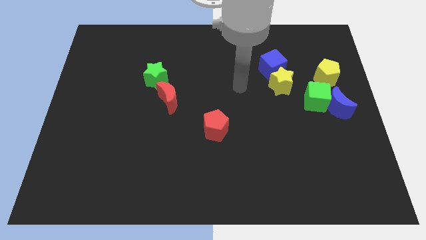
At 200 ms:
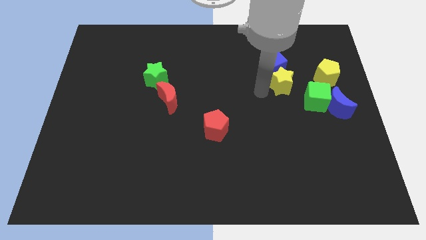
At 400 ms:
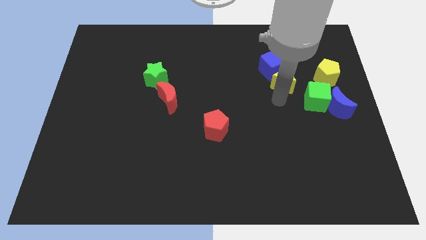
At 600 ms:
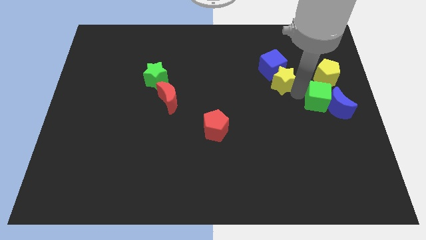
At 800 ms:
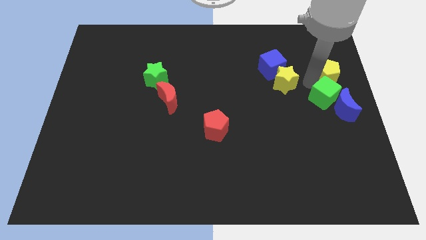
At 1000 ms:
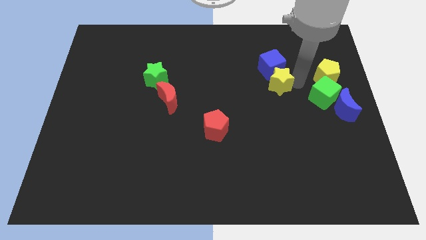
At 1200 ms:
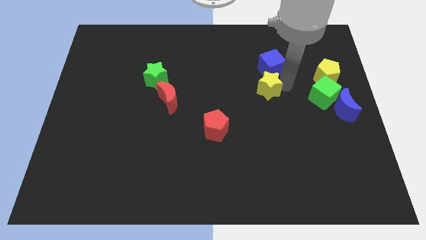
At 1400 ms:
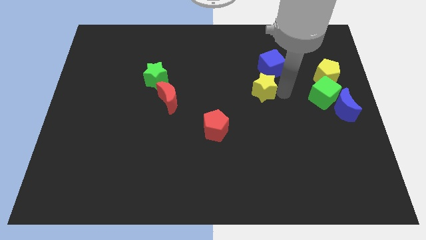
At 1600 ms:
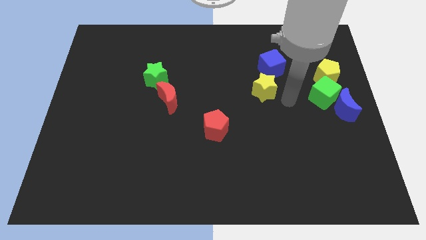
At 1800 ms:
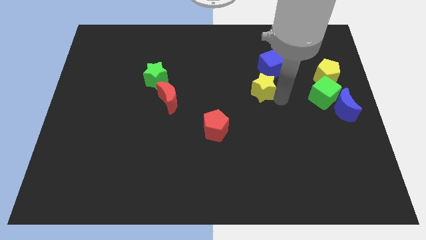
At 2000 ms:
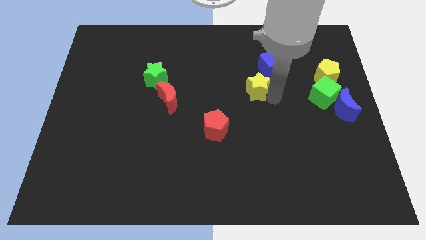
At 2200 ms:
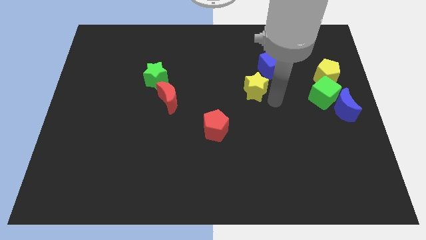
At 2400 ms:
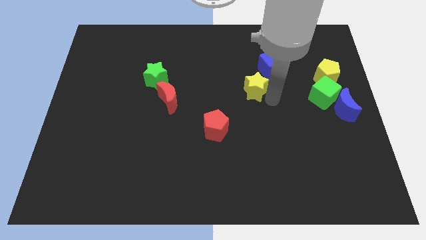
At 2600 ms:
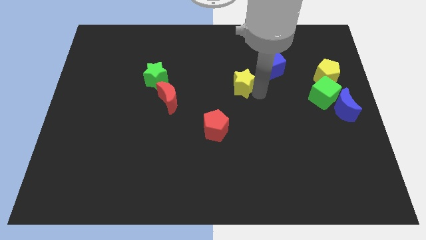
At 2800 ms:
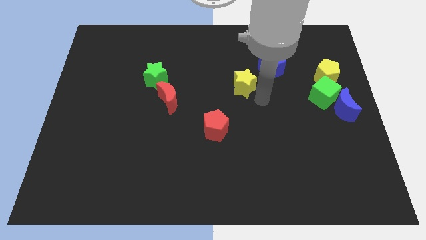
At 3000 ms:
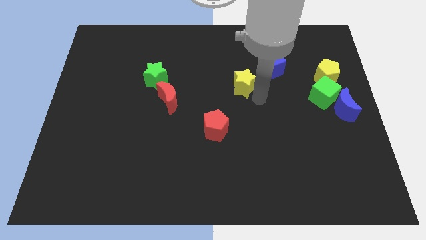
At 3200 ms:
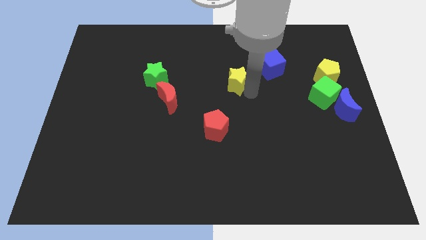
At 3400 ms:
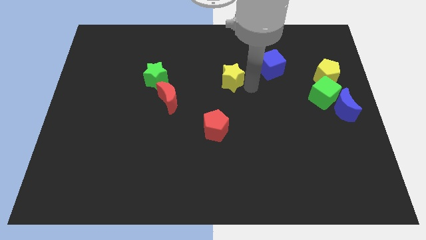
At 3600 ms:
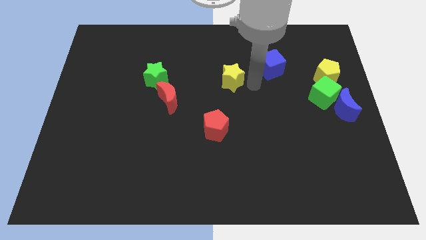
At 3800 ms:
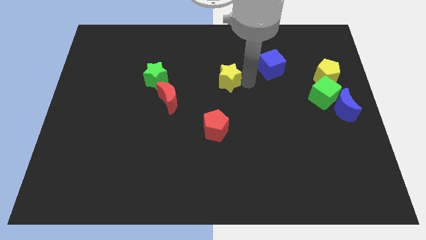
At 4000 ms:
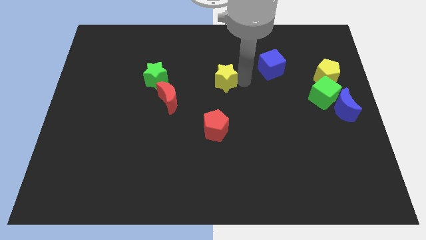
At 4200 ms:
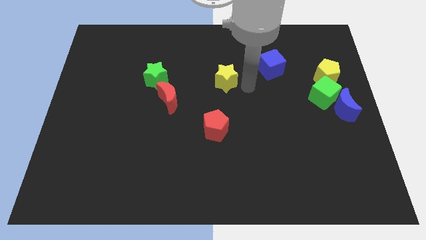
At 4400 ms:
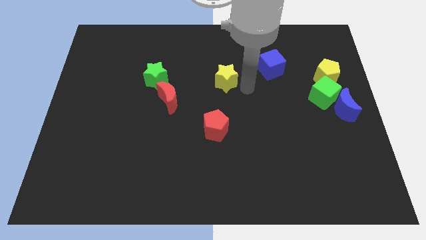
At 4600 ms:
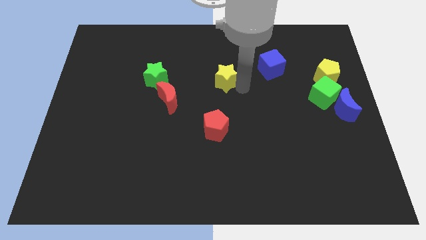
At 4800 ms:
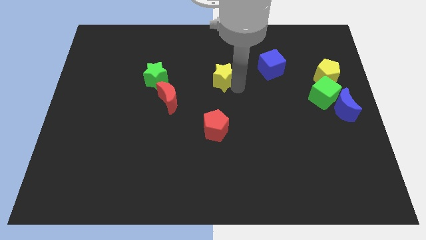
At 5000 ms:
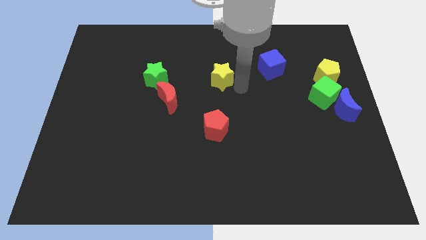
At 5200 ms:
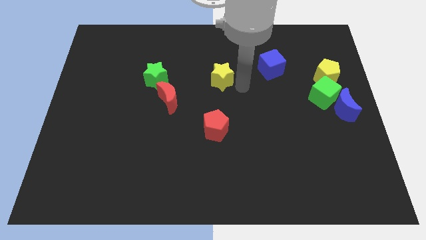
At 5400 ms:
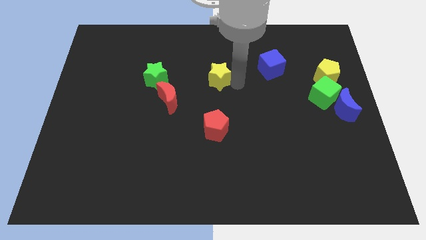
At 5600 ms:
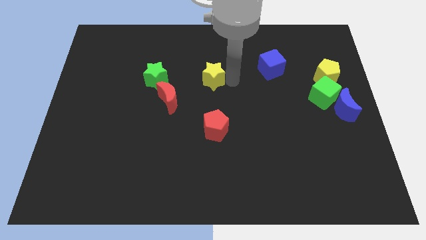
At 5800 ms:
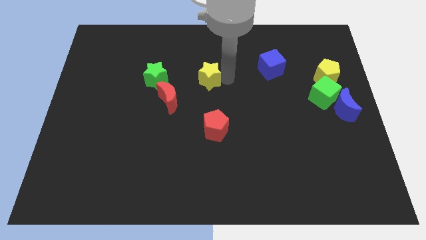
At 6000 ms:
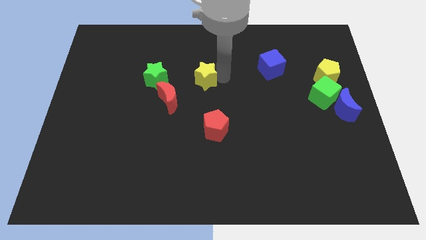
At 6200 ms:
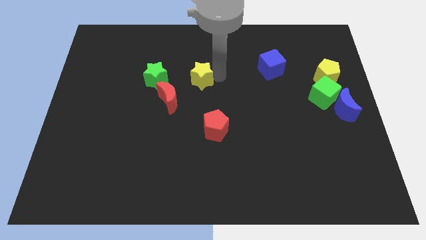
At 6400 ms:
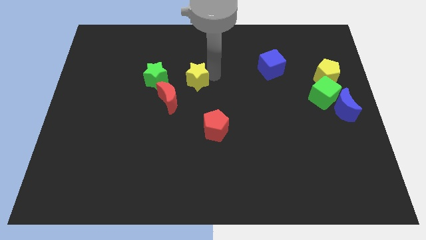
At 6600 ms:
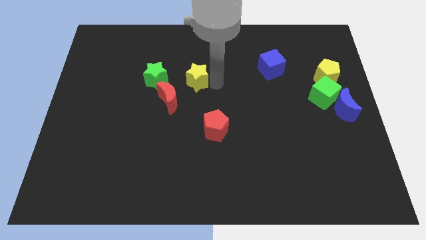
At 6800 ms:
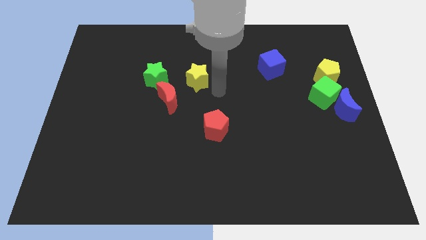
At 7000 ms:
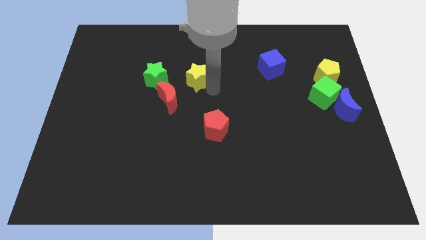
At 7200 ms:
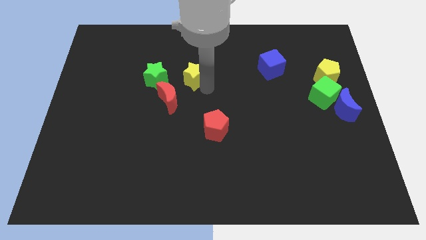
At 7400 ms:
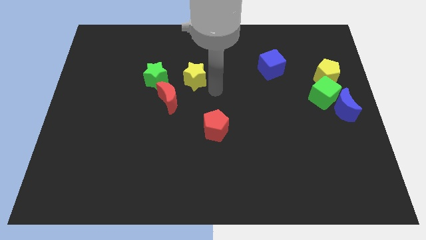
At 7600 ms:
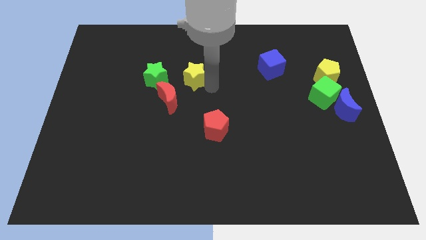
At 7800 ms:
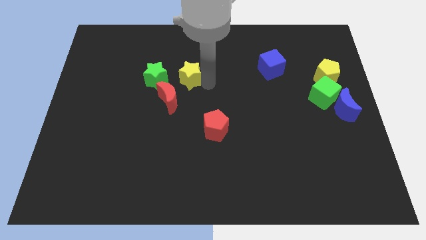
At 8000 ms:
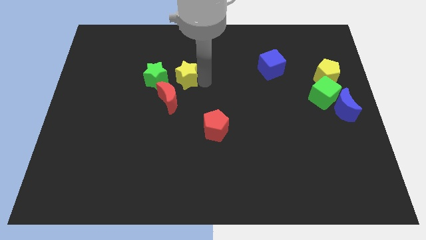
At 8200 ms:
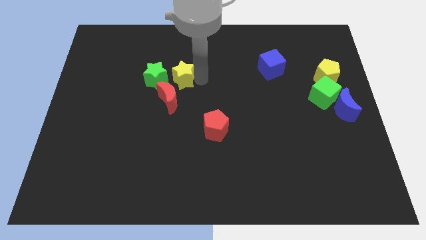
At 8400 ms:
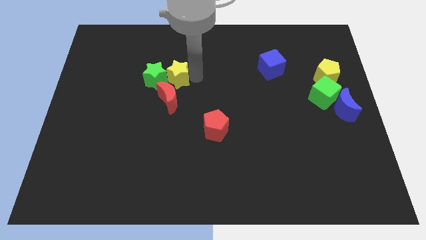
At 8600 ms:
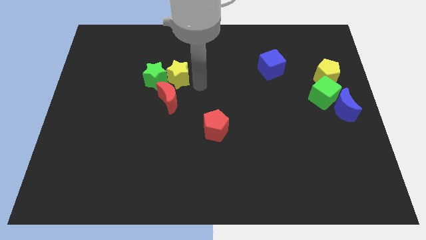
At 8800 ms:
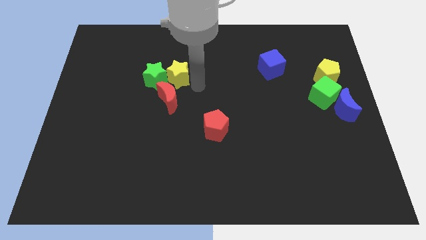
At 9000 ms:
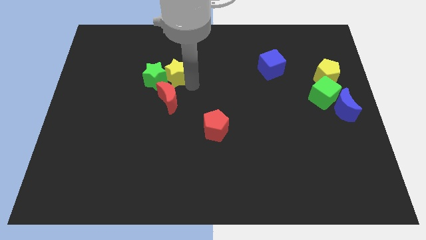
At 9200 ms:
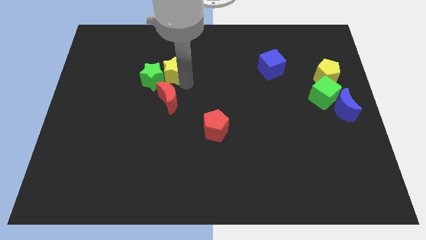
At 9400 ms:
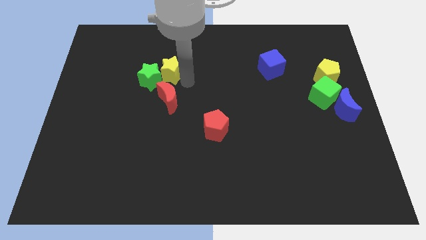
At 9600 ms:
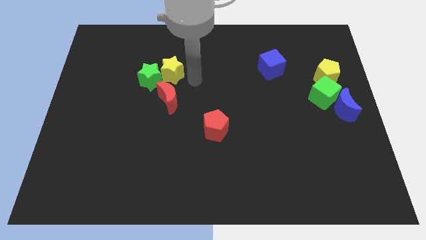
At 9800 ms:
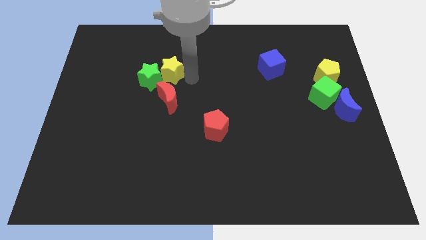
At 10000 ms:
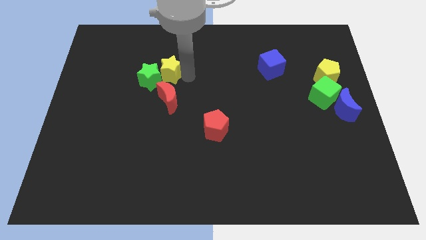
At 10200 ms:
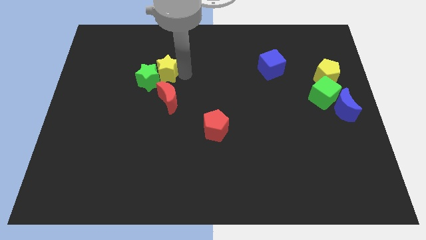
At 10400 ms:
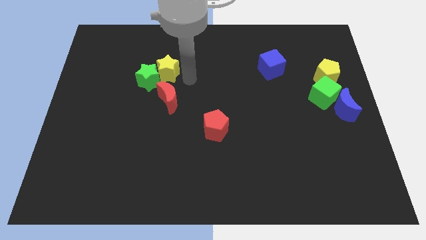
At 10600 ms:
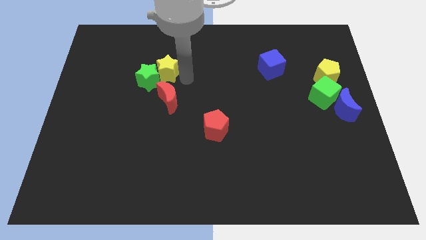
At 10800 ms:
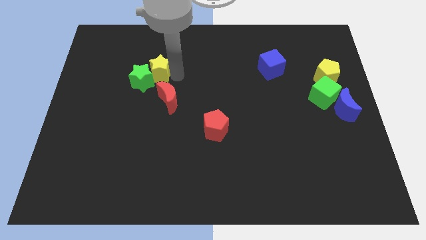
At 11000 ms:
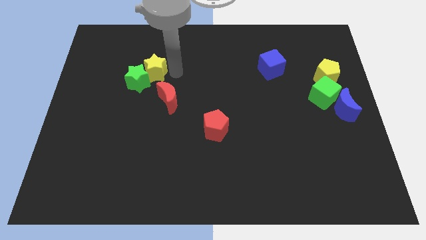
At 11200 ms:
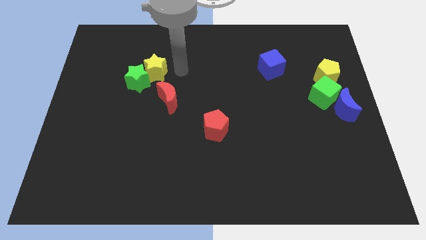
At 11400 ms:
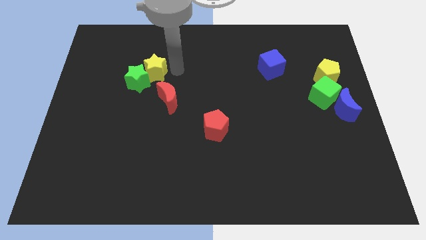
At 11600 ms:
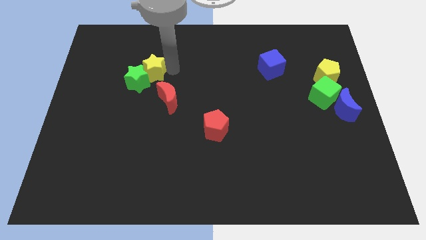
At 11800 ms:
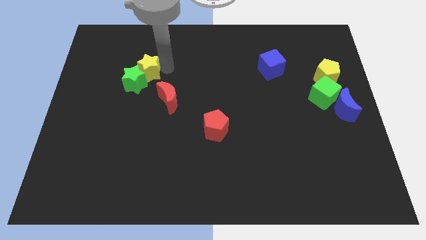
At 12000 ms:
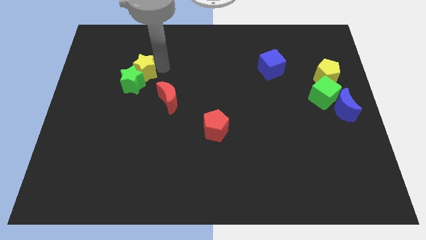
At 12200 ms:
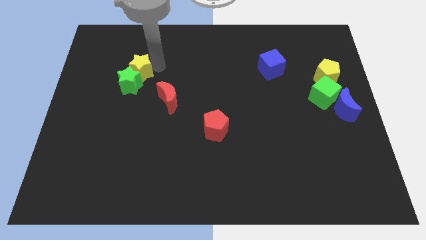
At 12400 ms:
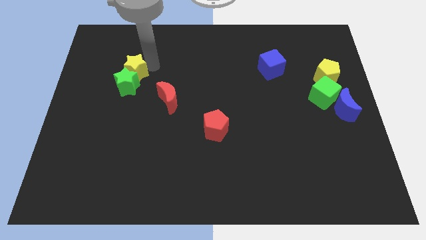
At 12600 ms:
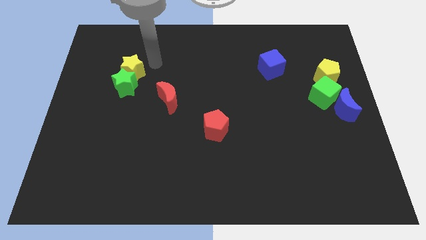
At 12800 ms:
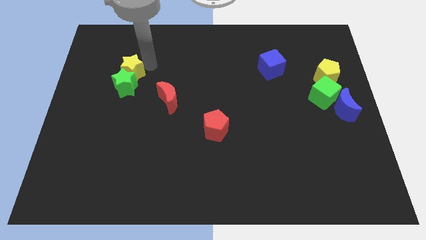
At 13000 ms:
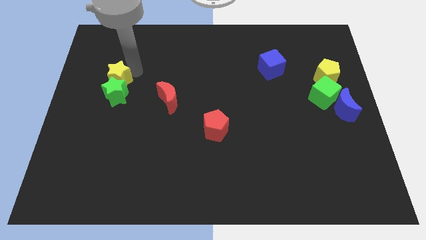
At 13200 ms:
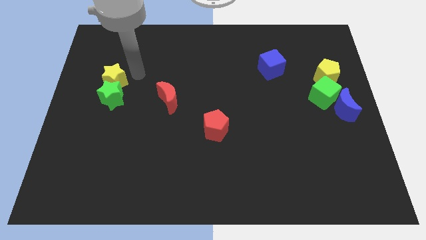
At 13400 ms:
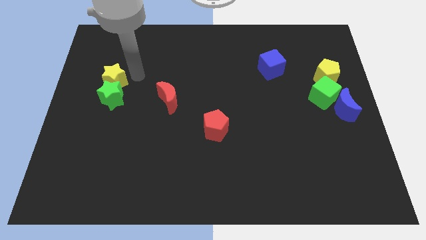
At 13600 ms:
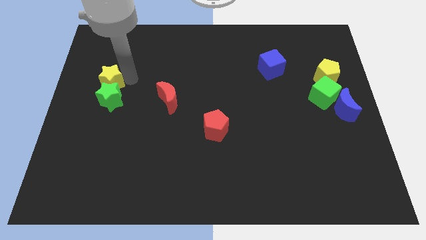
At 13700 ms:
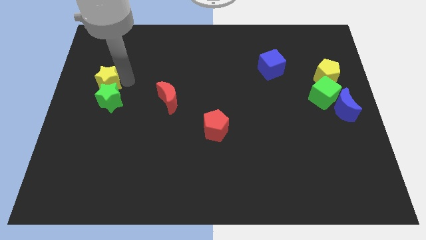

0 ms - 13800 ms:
push the yellow star to the center left
